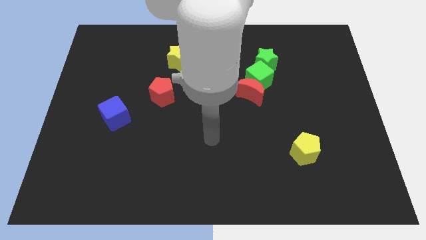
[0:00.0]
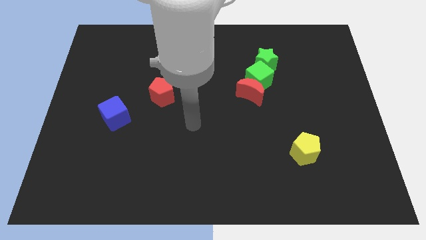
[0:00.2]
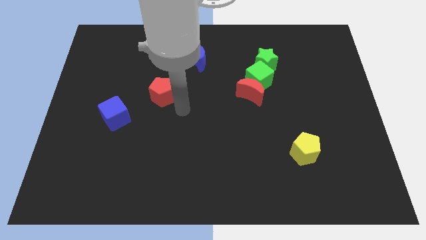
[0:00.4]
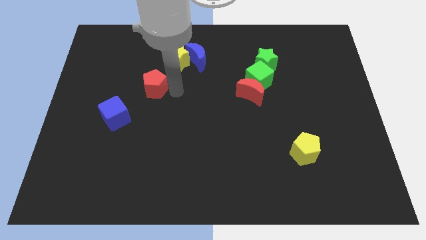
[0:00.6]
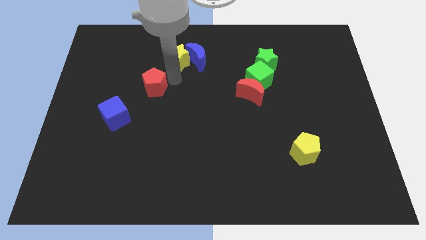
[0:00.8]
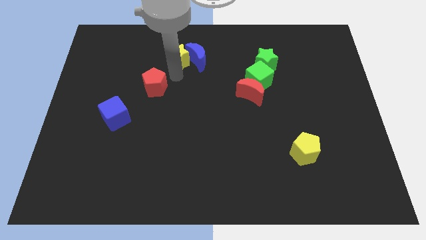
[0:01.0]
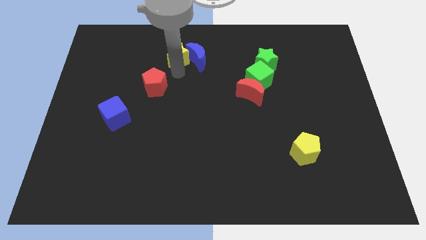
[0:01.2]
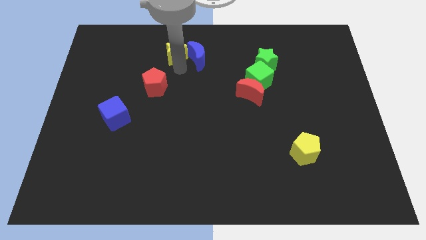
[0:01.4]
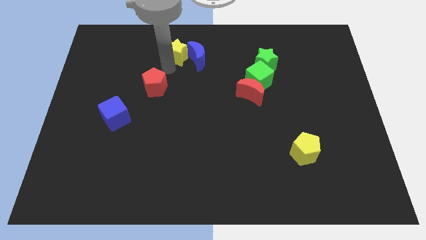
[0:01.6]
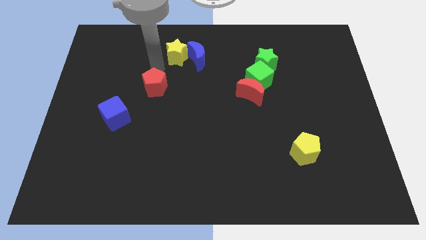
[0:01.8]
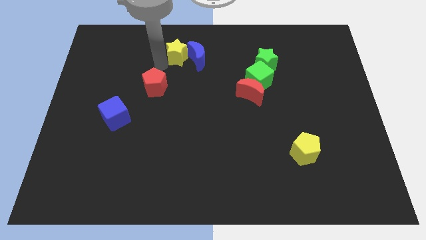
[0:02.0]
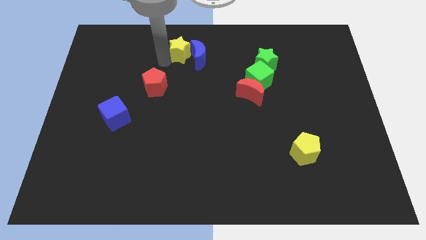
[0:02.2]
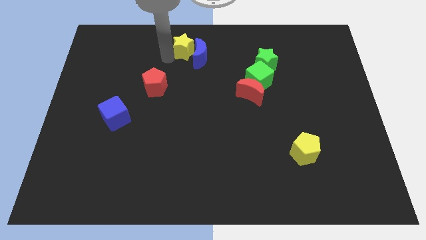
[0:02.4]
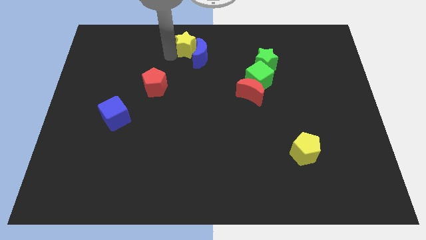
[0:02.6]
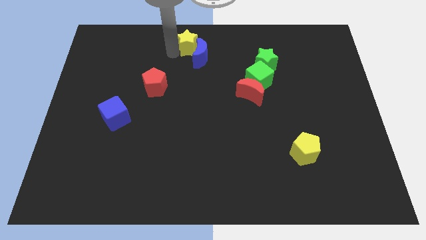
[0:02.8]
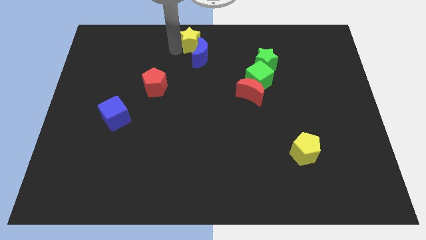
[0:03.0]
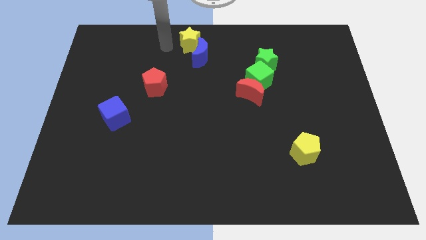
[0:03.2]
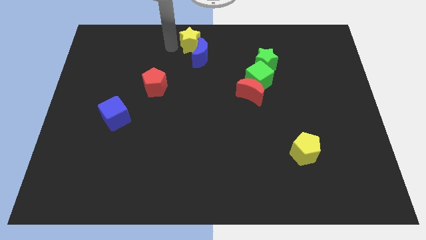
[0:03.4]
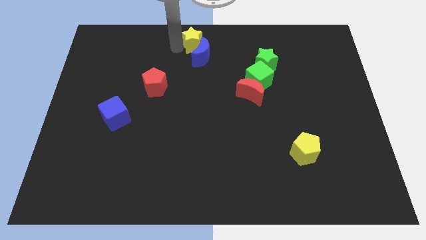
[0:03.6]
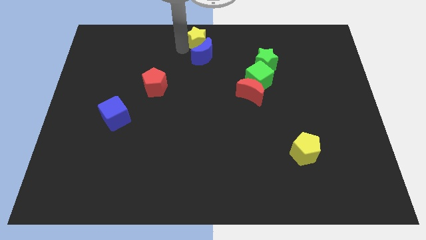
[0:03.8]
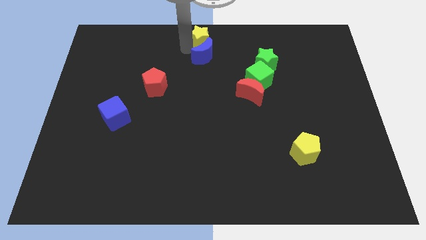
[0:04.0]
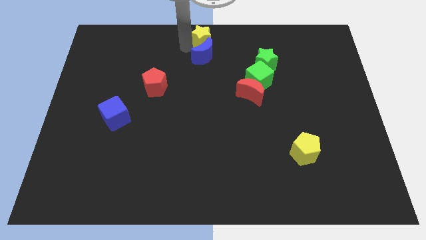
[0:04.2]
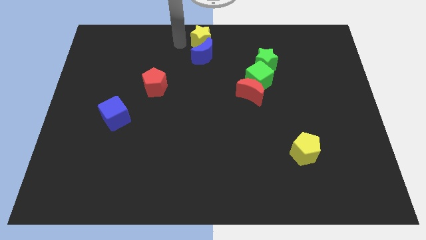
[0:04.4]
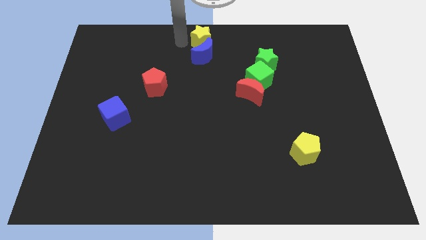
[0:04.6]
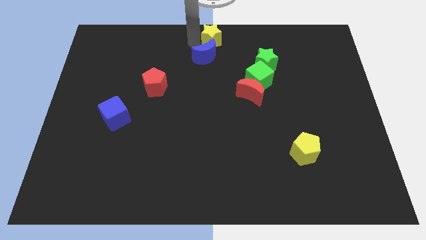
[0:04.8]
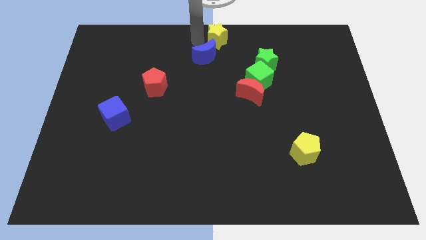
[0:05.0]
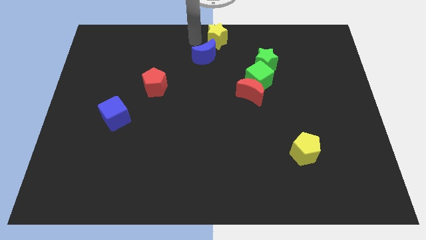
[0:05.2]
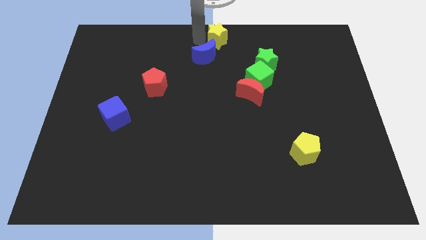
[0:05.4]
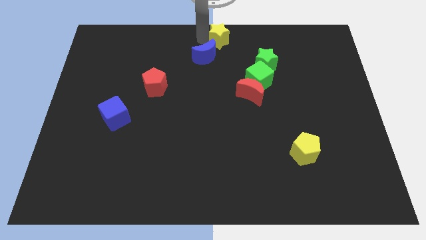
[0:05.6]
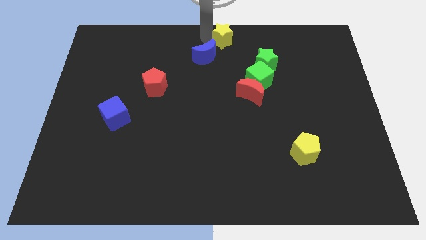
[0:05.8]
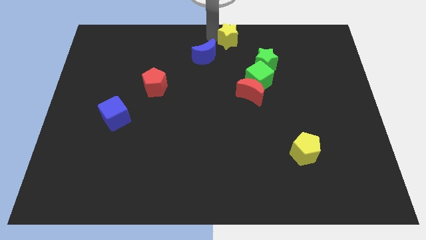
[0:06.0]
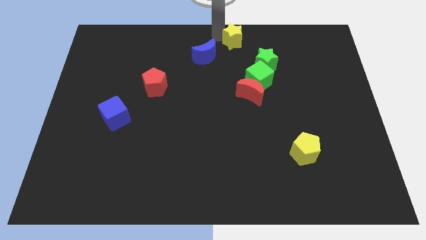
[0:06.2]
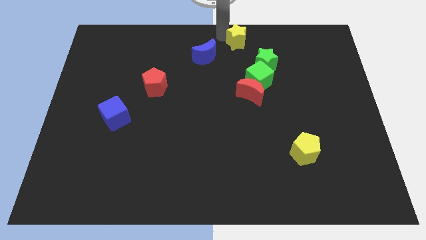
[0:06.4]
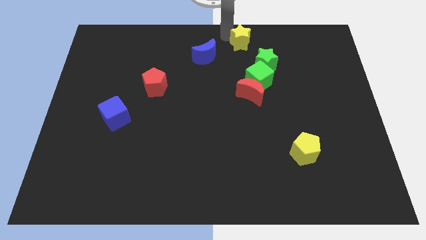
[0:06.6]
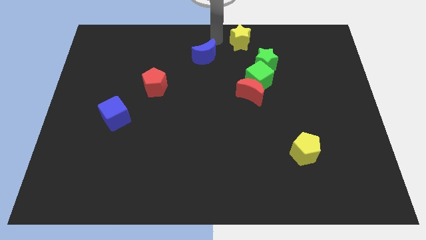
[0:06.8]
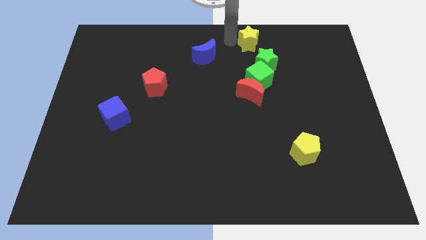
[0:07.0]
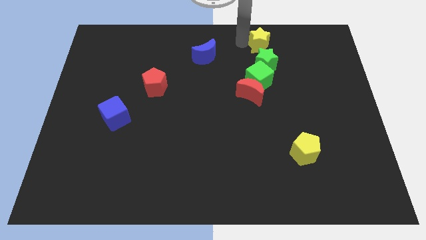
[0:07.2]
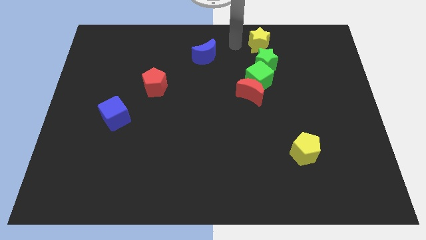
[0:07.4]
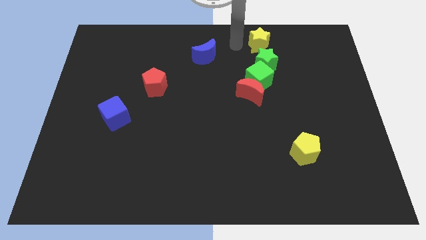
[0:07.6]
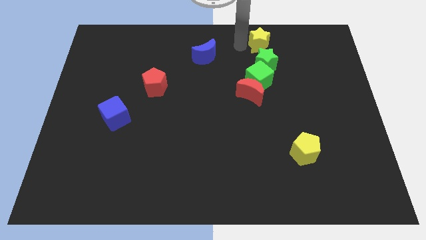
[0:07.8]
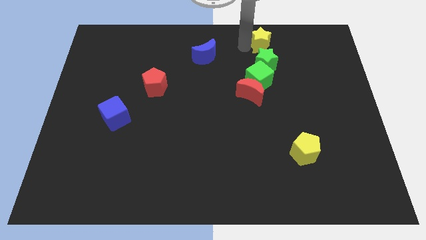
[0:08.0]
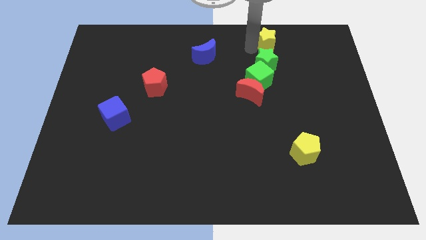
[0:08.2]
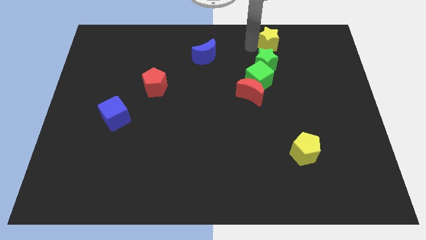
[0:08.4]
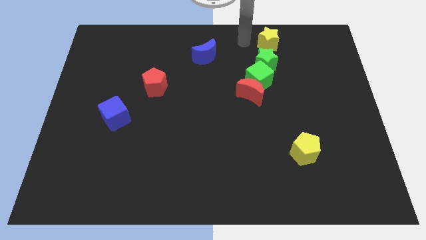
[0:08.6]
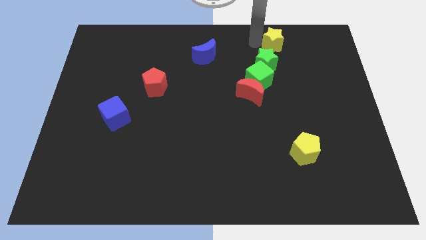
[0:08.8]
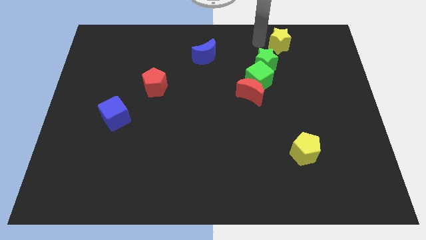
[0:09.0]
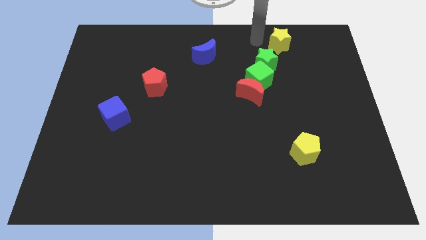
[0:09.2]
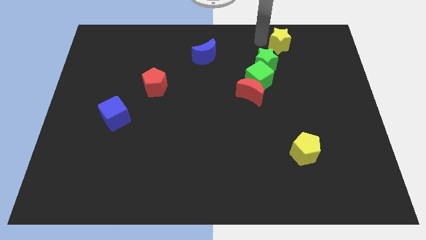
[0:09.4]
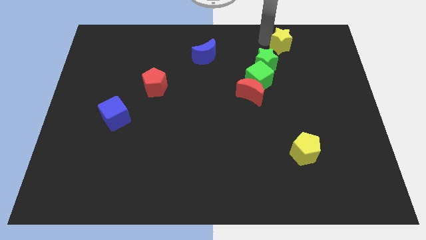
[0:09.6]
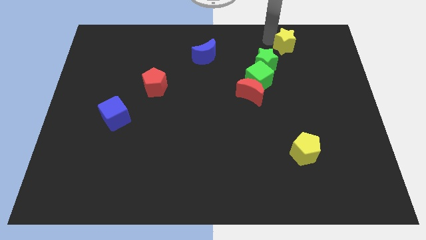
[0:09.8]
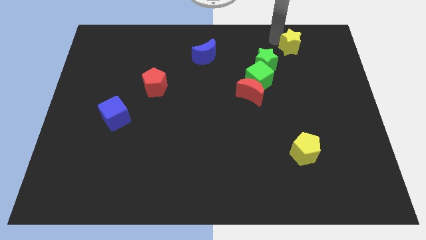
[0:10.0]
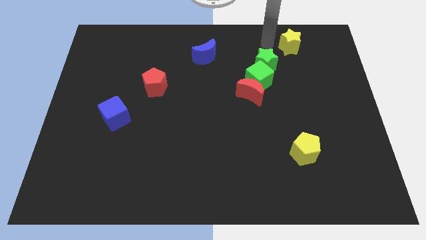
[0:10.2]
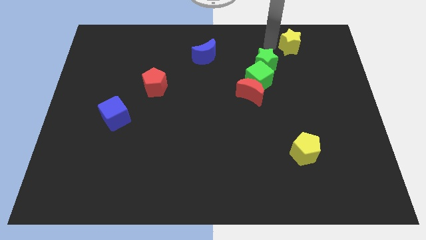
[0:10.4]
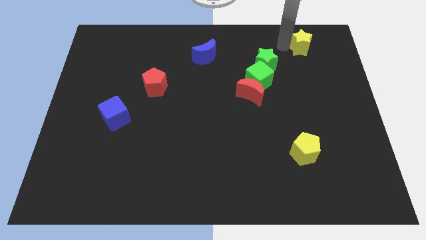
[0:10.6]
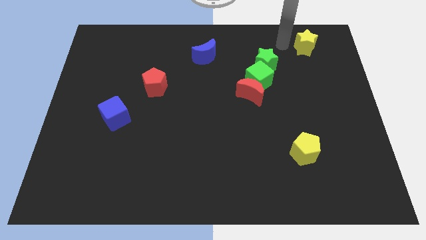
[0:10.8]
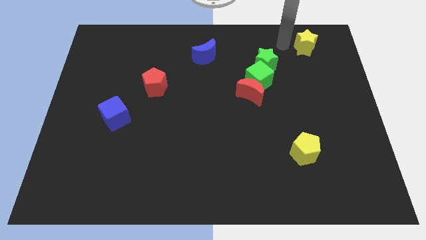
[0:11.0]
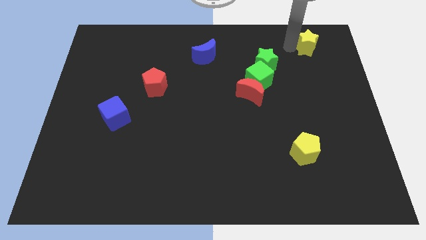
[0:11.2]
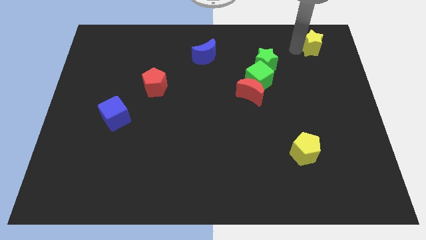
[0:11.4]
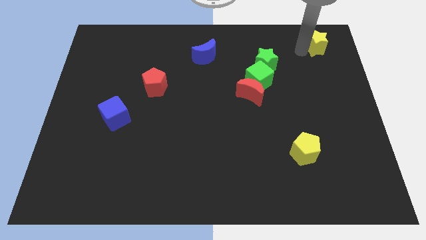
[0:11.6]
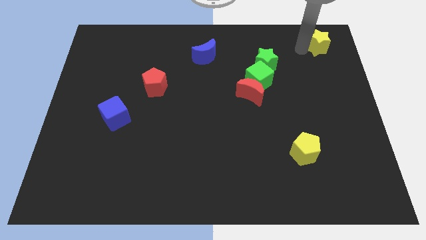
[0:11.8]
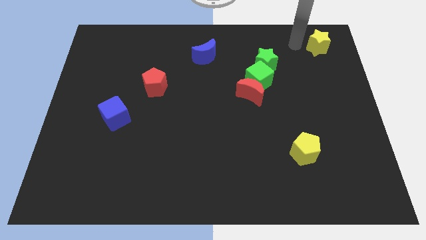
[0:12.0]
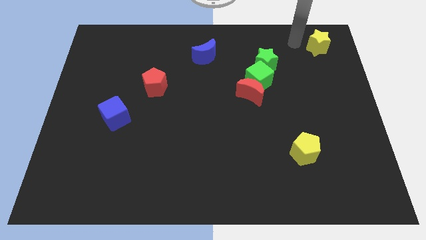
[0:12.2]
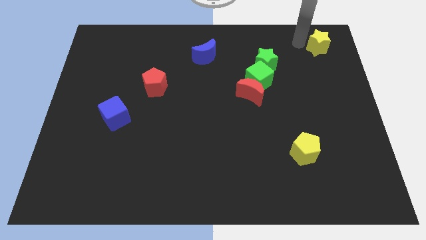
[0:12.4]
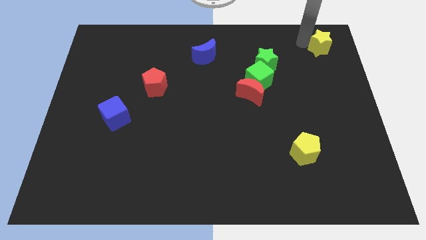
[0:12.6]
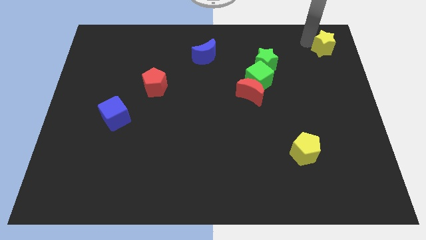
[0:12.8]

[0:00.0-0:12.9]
move the yellow star to the upper right corner

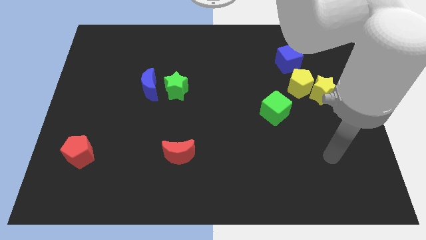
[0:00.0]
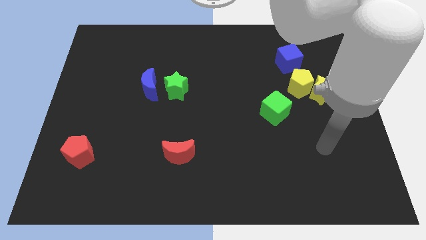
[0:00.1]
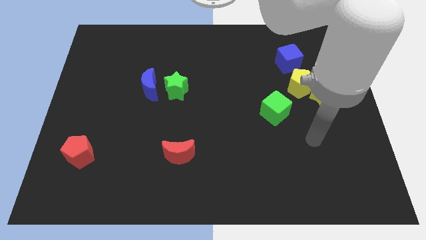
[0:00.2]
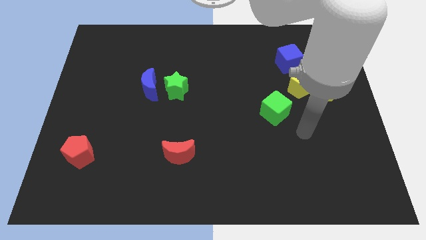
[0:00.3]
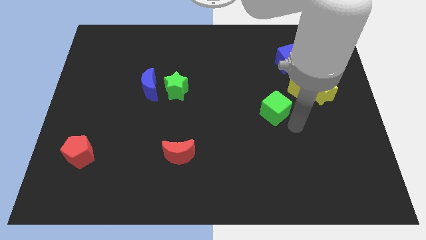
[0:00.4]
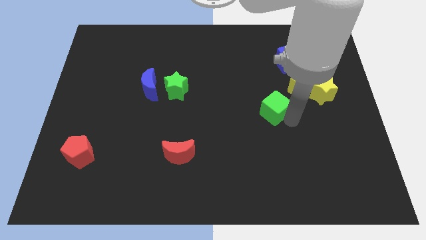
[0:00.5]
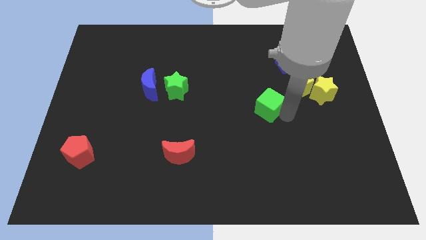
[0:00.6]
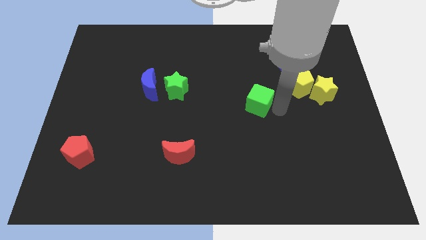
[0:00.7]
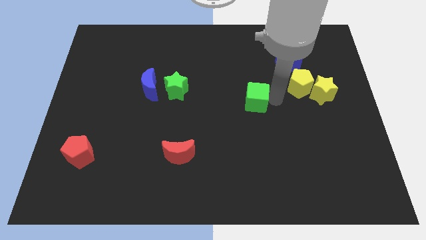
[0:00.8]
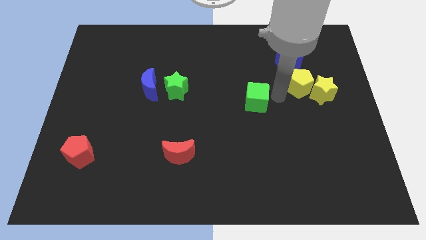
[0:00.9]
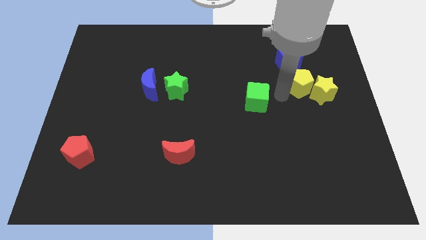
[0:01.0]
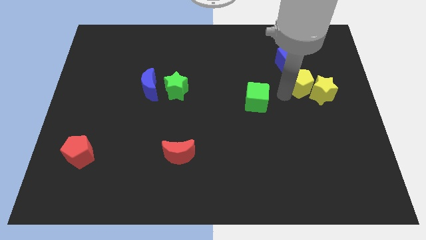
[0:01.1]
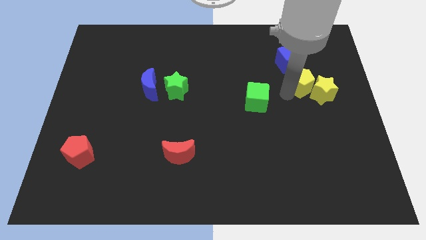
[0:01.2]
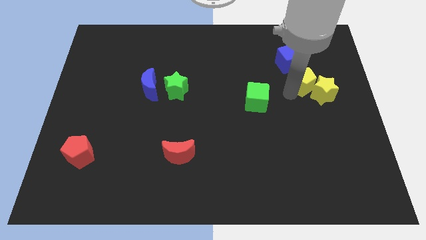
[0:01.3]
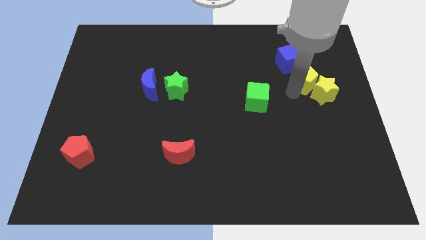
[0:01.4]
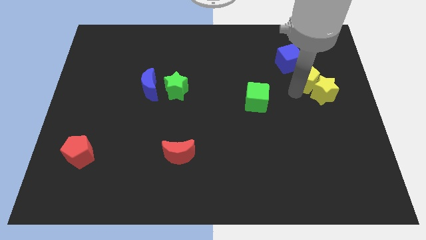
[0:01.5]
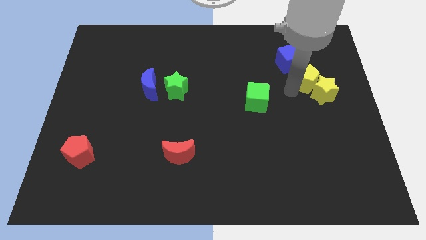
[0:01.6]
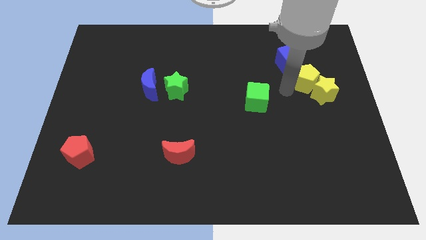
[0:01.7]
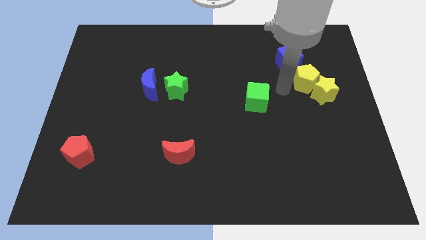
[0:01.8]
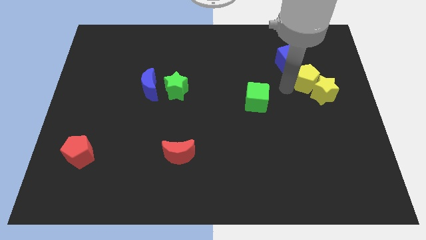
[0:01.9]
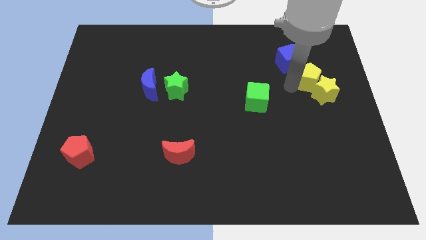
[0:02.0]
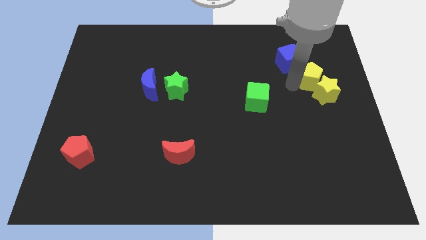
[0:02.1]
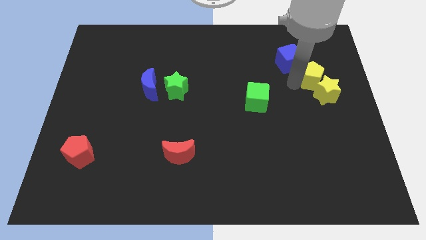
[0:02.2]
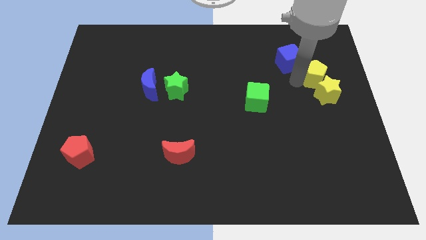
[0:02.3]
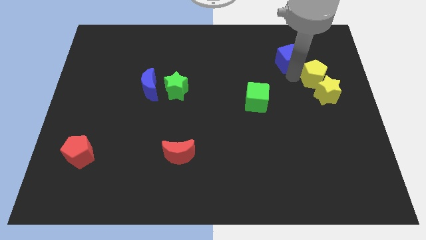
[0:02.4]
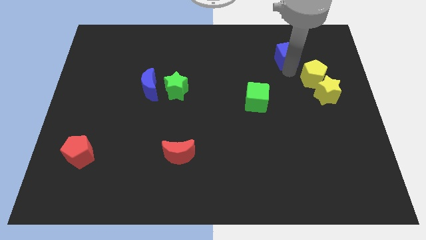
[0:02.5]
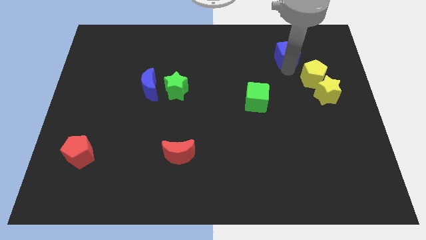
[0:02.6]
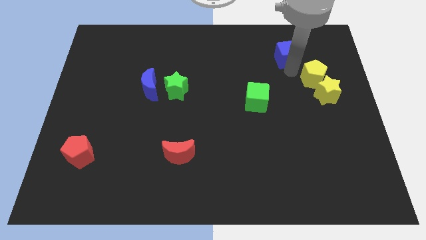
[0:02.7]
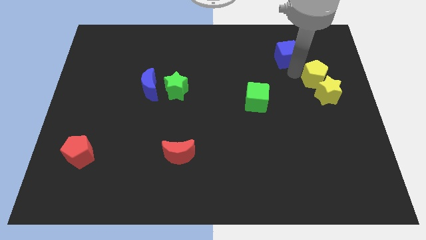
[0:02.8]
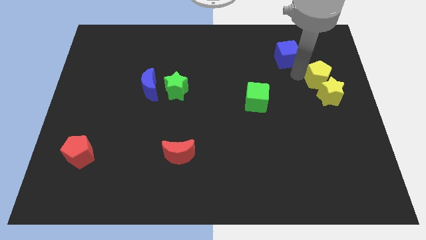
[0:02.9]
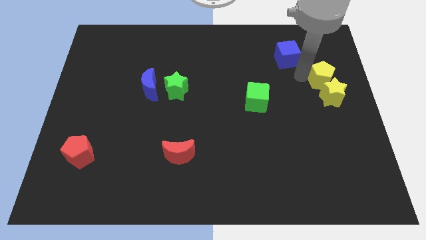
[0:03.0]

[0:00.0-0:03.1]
move the yellow pentagon to the right side
